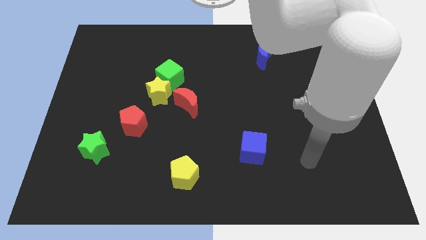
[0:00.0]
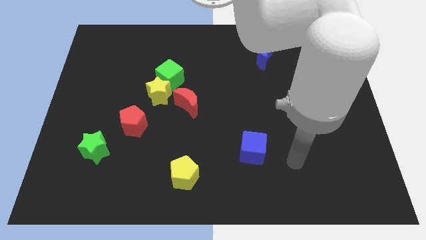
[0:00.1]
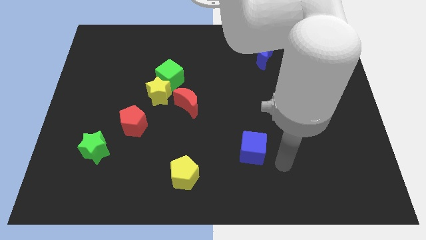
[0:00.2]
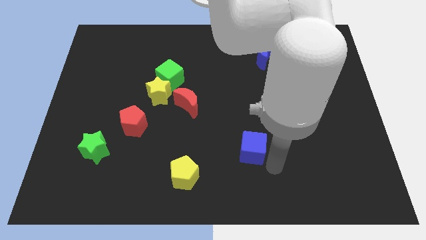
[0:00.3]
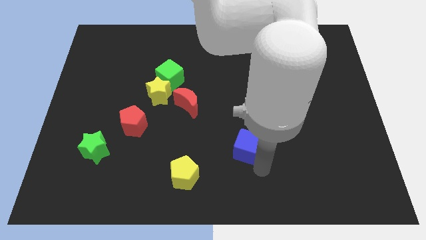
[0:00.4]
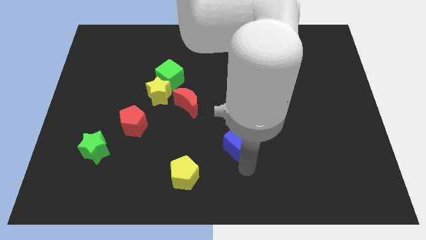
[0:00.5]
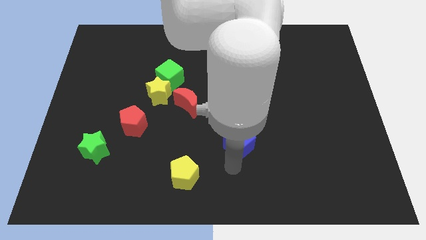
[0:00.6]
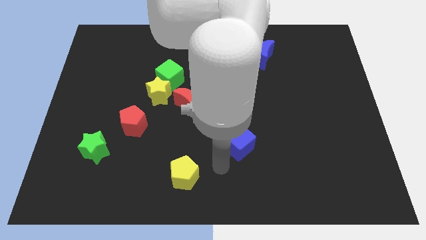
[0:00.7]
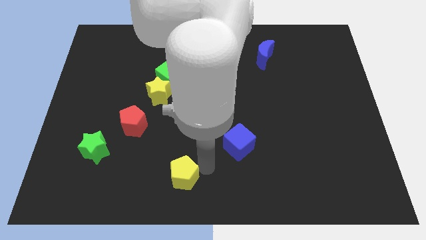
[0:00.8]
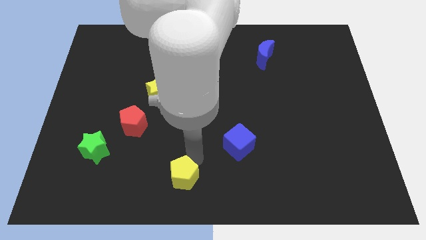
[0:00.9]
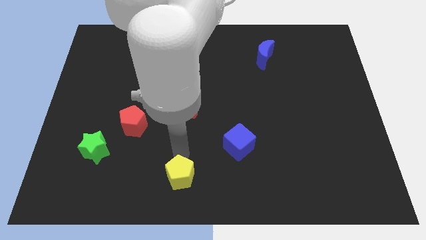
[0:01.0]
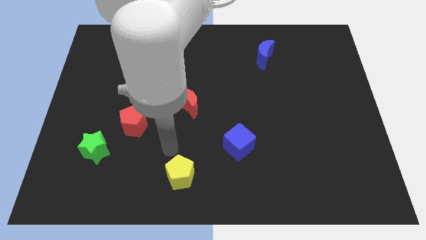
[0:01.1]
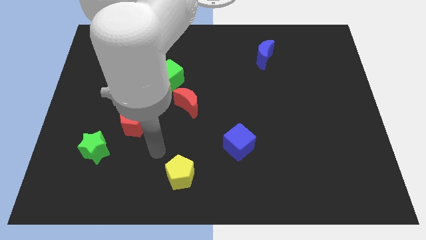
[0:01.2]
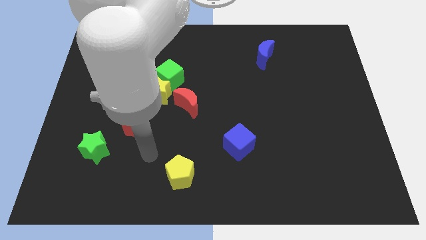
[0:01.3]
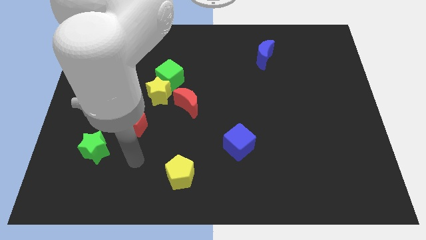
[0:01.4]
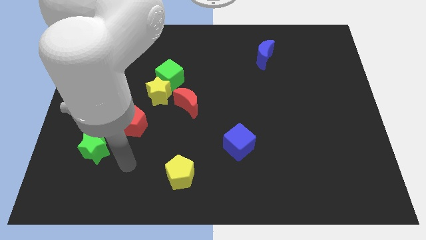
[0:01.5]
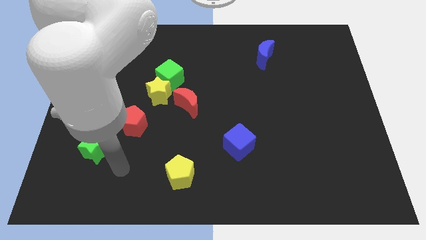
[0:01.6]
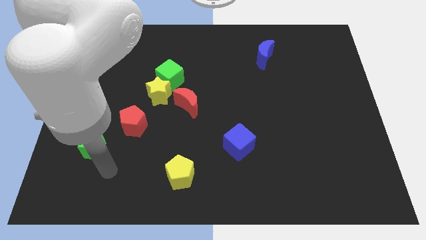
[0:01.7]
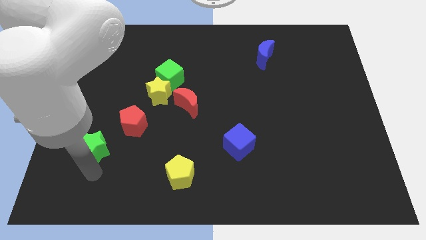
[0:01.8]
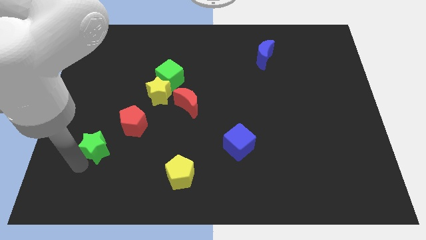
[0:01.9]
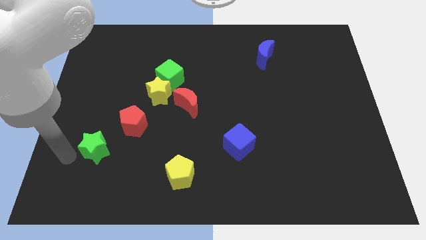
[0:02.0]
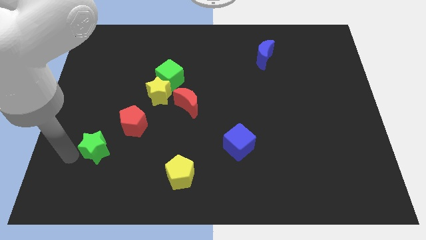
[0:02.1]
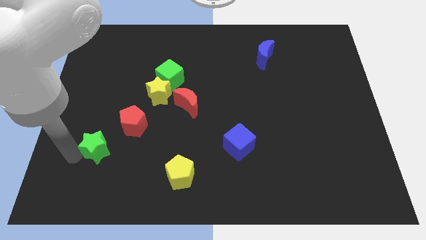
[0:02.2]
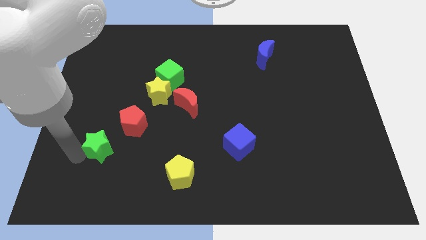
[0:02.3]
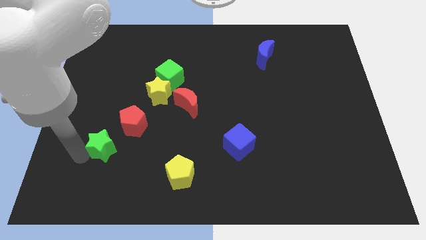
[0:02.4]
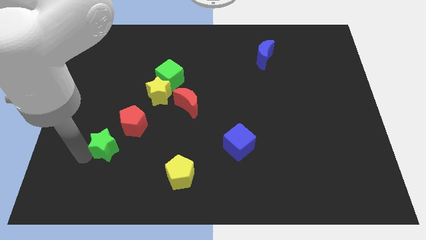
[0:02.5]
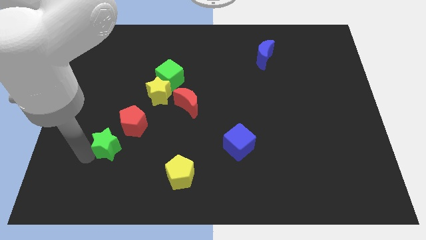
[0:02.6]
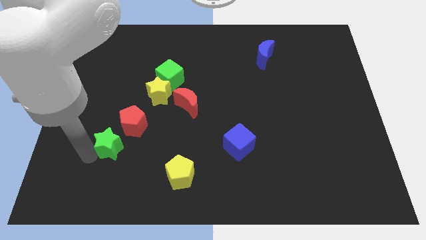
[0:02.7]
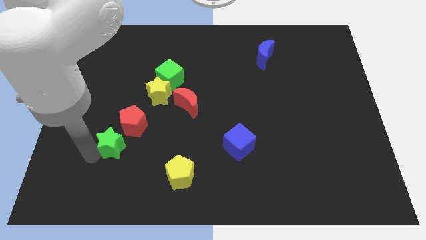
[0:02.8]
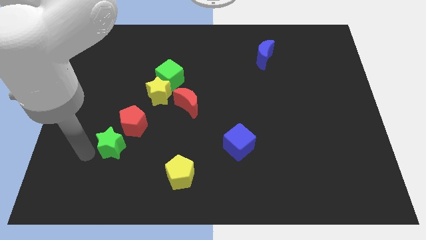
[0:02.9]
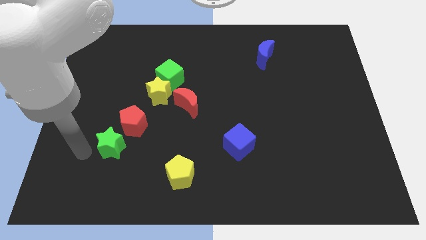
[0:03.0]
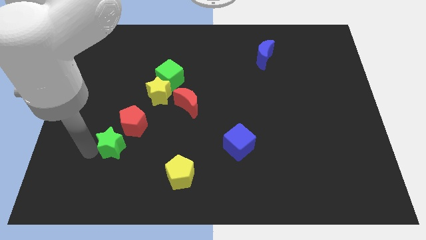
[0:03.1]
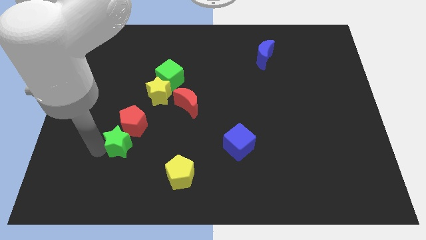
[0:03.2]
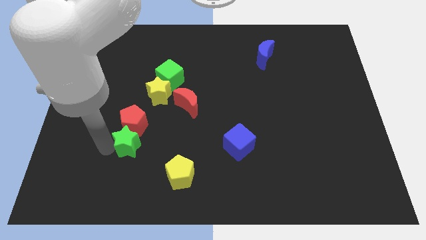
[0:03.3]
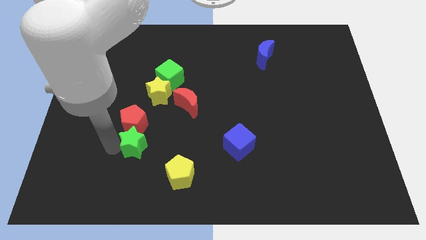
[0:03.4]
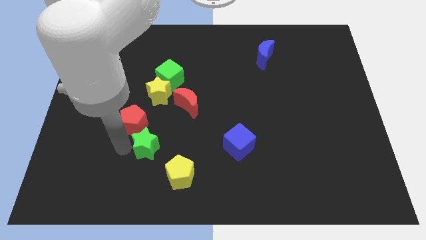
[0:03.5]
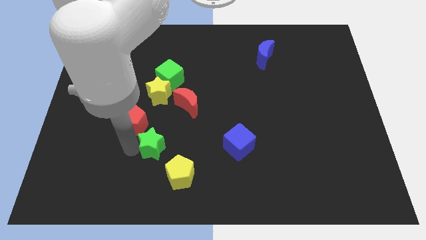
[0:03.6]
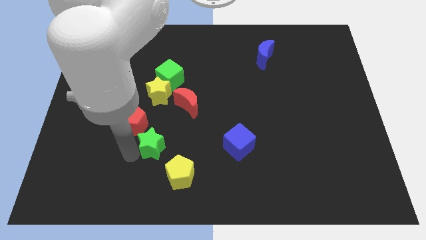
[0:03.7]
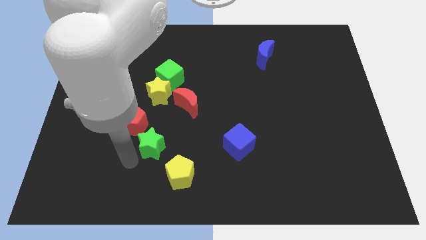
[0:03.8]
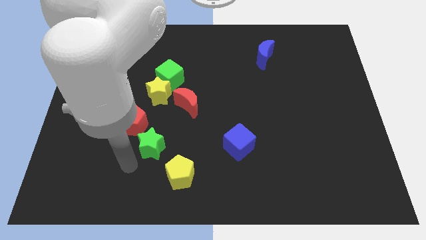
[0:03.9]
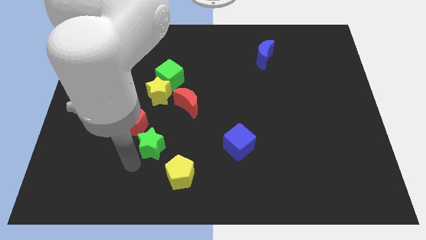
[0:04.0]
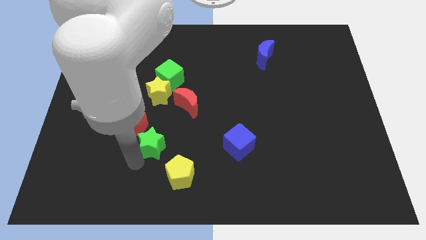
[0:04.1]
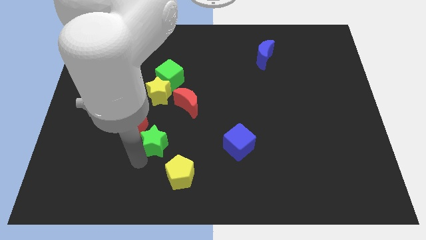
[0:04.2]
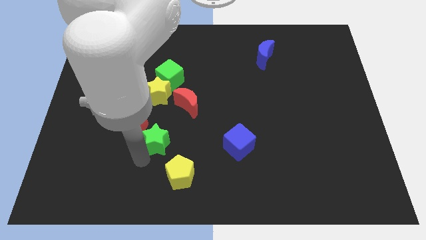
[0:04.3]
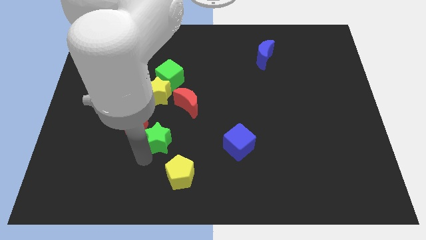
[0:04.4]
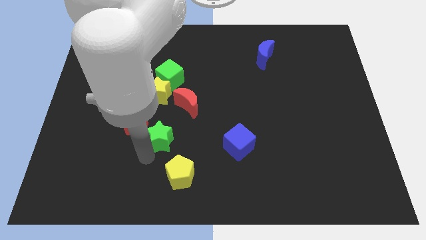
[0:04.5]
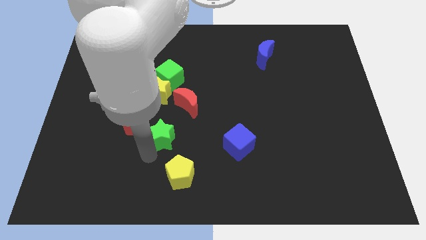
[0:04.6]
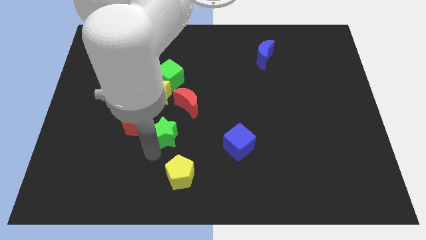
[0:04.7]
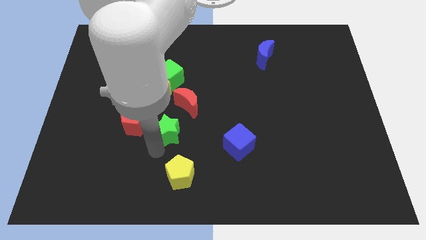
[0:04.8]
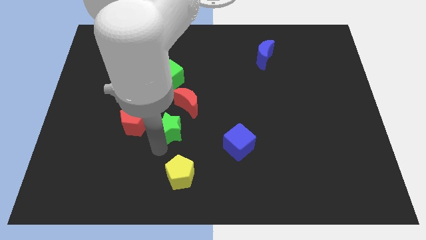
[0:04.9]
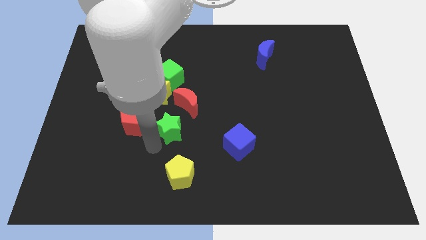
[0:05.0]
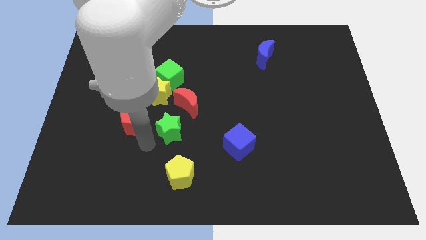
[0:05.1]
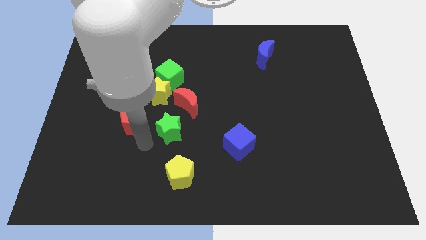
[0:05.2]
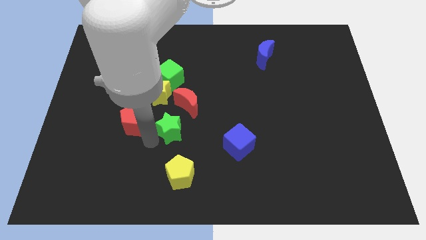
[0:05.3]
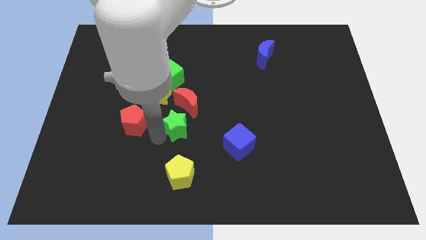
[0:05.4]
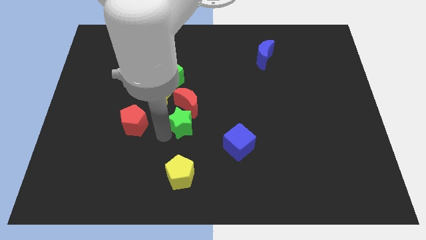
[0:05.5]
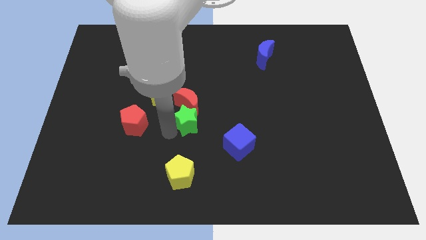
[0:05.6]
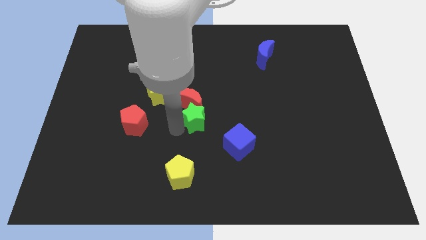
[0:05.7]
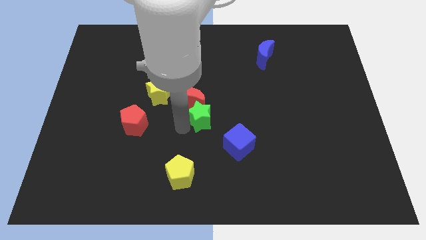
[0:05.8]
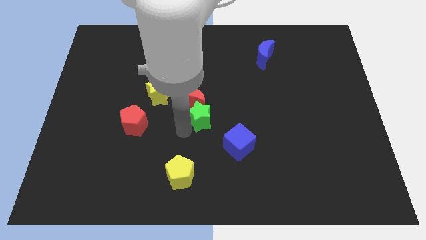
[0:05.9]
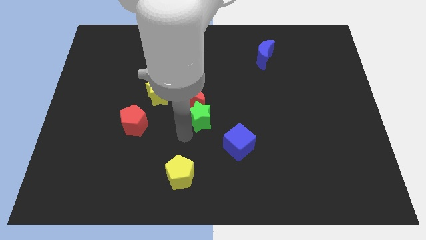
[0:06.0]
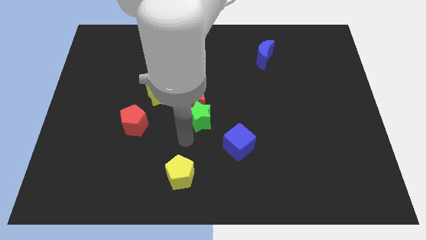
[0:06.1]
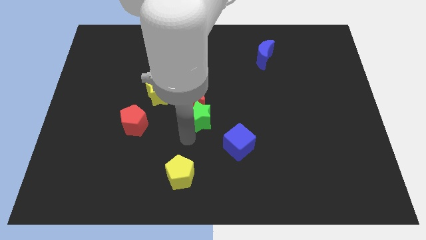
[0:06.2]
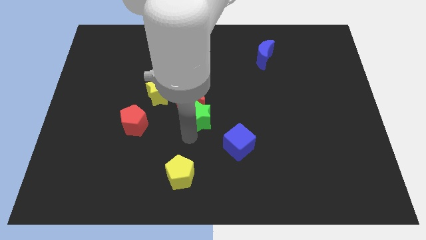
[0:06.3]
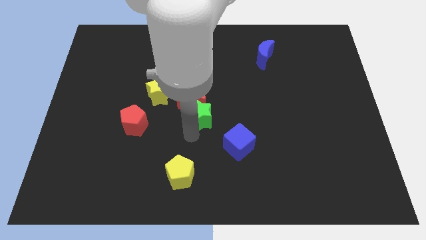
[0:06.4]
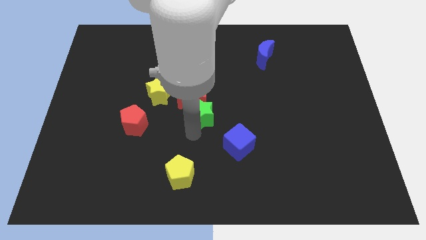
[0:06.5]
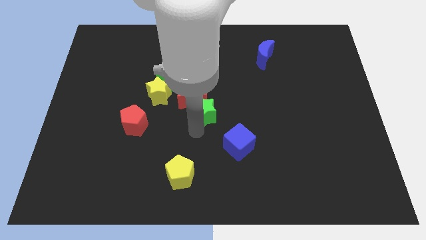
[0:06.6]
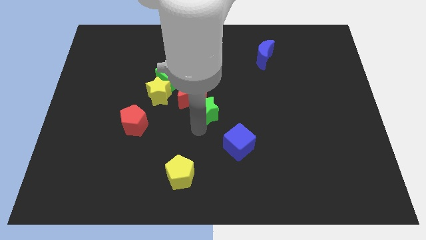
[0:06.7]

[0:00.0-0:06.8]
move the green star up and then right

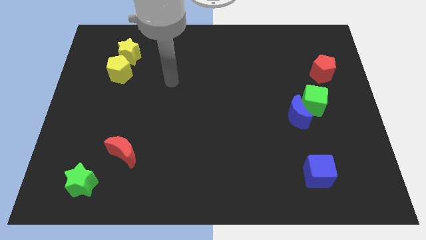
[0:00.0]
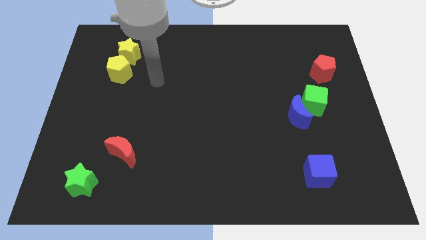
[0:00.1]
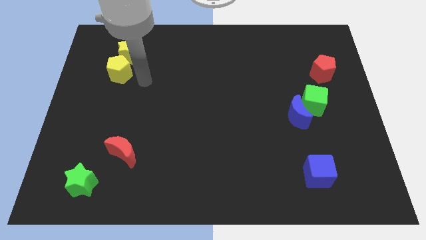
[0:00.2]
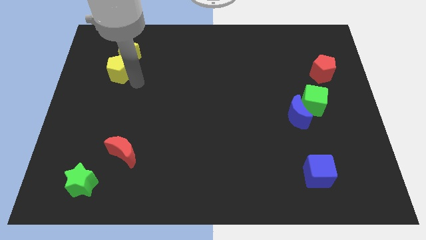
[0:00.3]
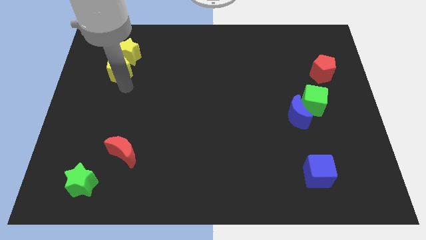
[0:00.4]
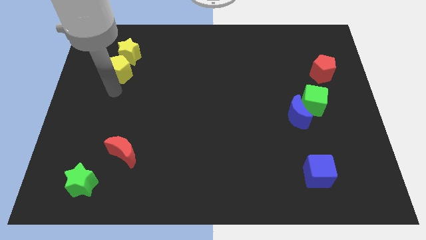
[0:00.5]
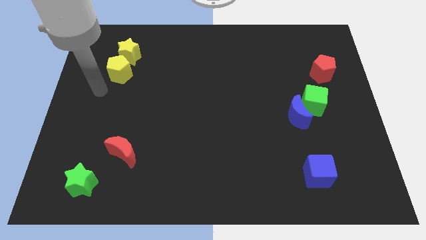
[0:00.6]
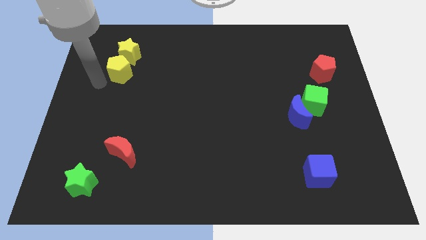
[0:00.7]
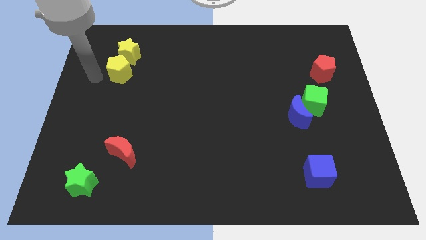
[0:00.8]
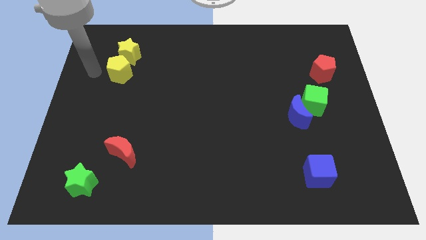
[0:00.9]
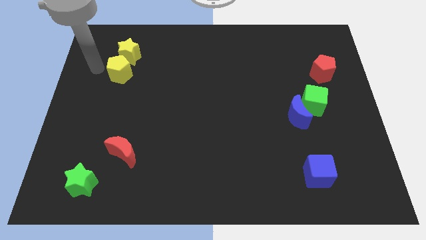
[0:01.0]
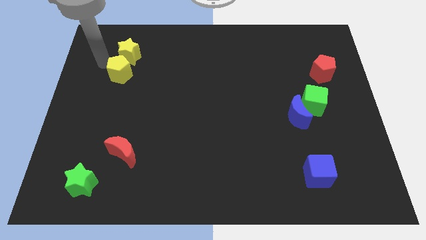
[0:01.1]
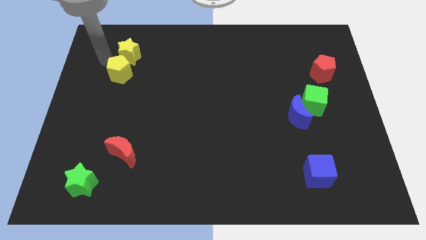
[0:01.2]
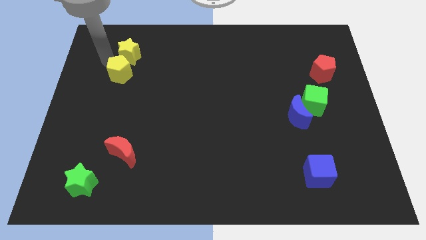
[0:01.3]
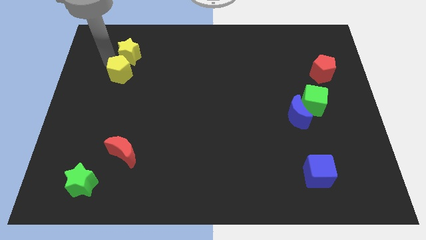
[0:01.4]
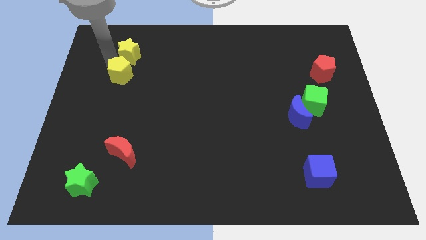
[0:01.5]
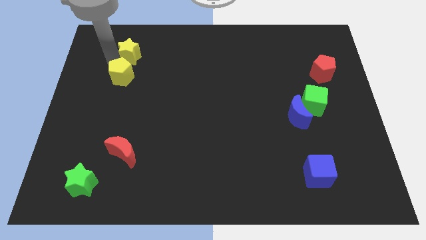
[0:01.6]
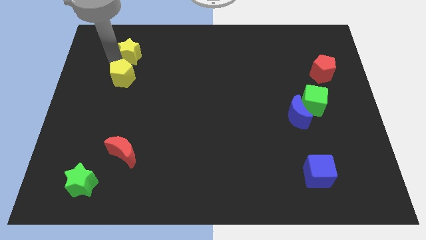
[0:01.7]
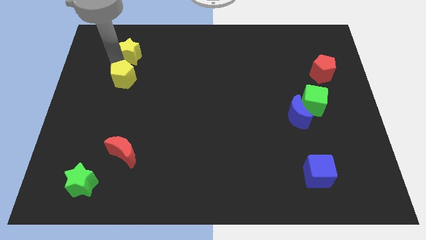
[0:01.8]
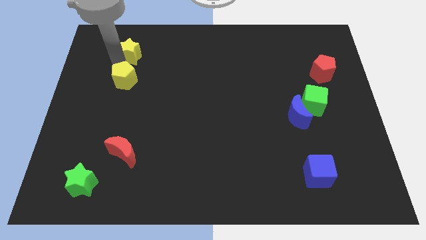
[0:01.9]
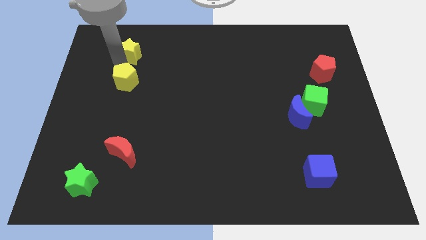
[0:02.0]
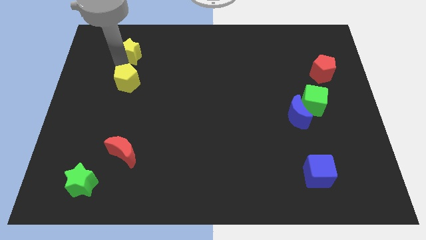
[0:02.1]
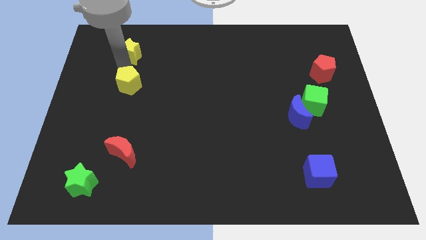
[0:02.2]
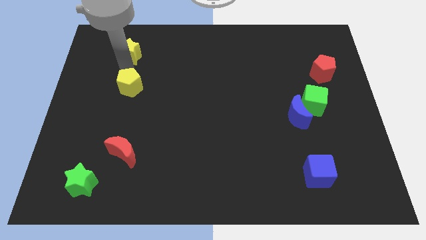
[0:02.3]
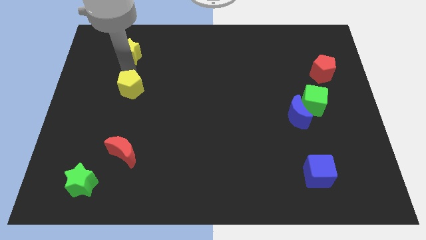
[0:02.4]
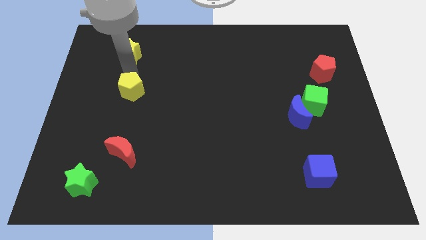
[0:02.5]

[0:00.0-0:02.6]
move the yellow pentagon somewhat down and to the right diagonally
